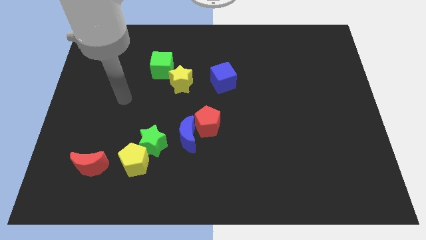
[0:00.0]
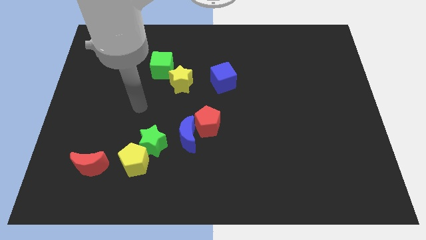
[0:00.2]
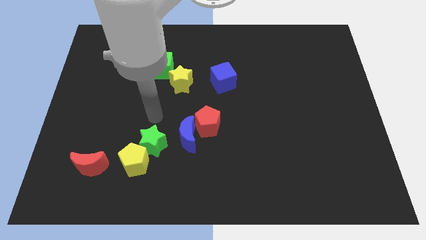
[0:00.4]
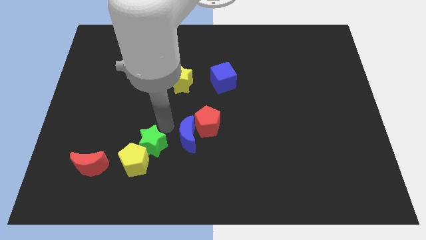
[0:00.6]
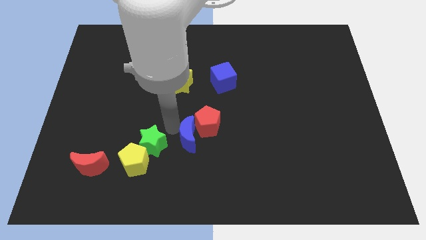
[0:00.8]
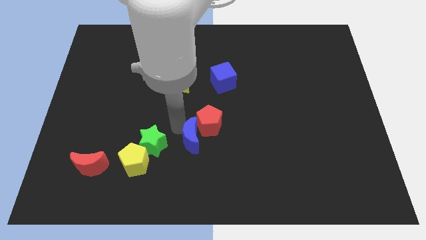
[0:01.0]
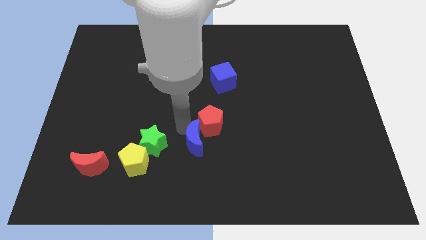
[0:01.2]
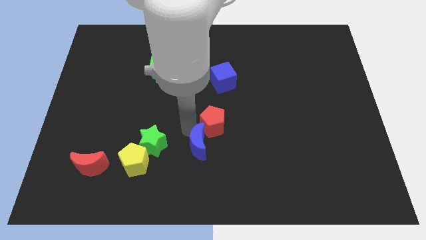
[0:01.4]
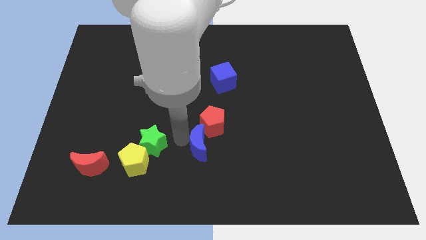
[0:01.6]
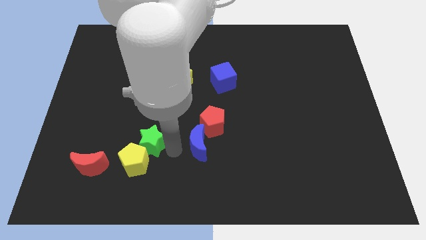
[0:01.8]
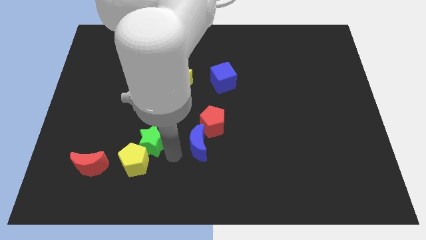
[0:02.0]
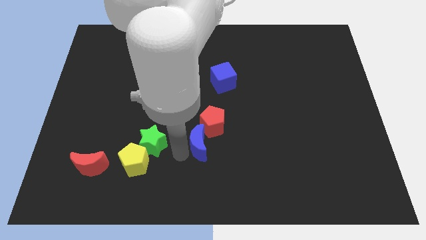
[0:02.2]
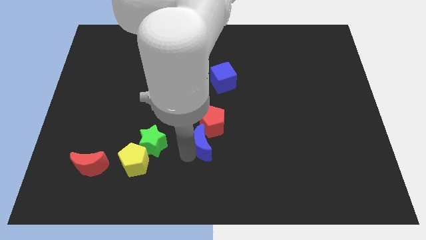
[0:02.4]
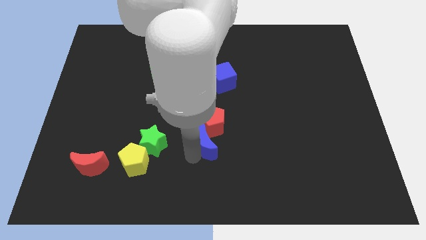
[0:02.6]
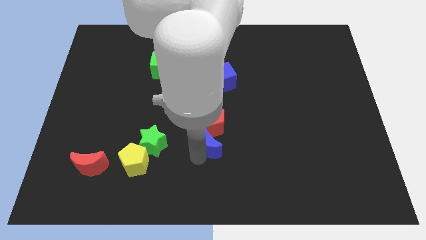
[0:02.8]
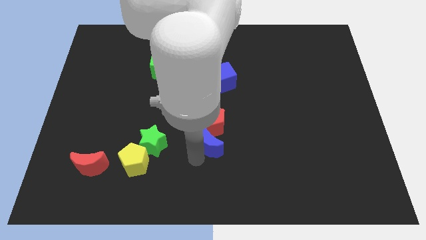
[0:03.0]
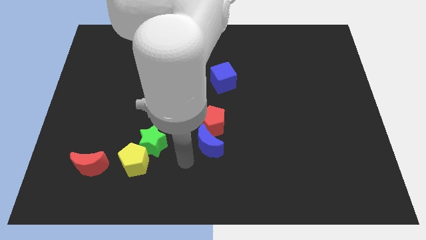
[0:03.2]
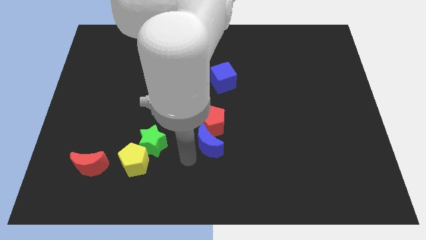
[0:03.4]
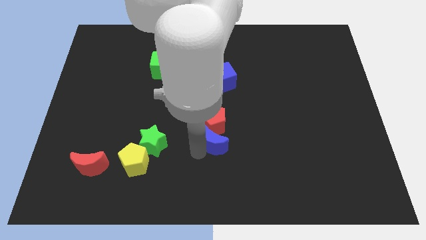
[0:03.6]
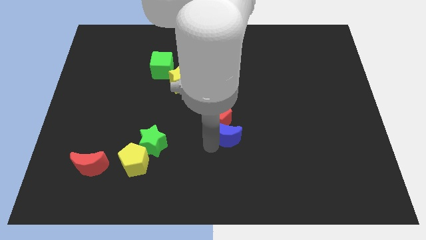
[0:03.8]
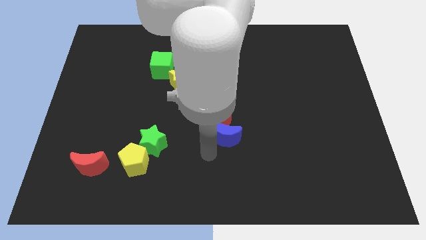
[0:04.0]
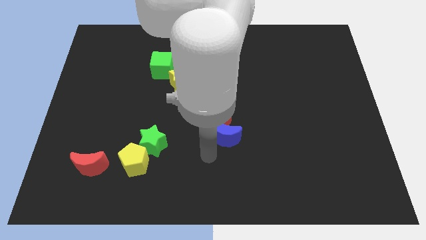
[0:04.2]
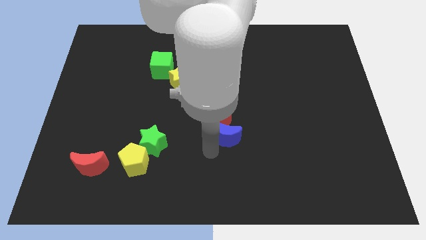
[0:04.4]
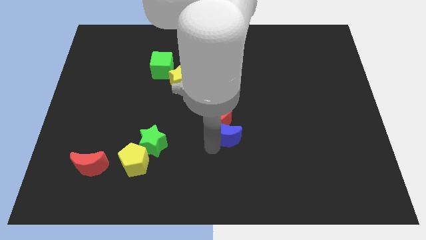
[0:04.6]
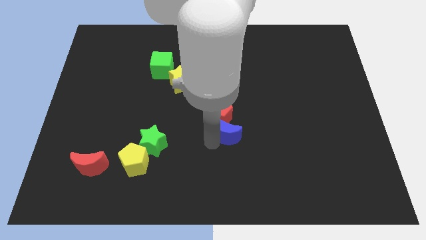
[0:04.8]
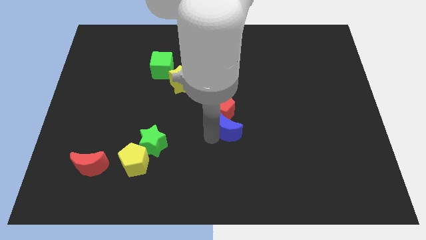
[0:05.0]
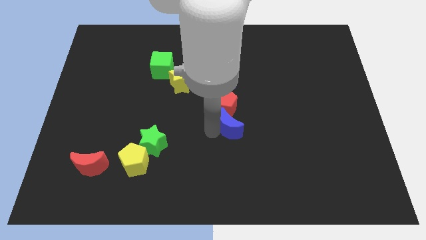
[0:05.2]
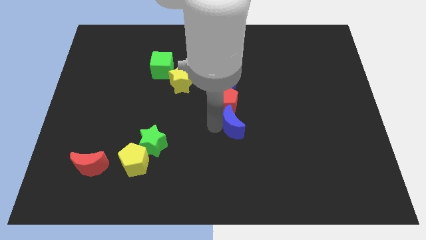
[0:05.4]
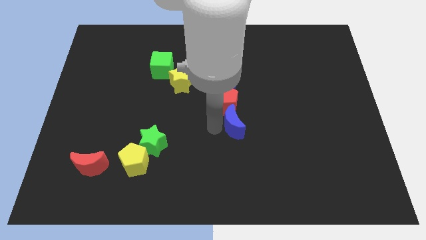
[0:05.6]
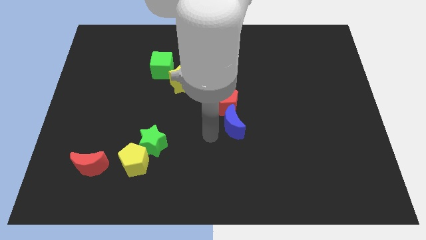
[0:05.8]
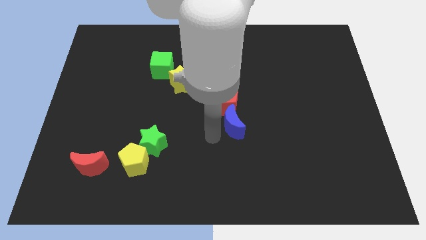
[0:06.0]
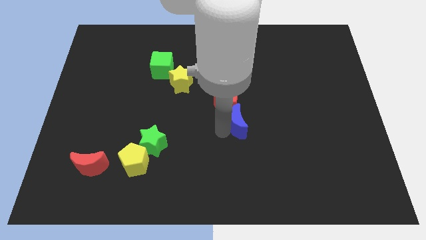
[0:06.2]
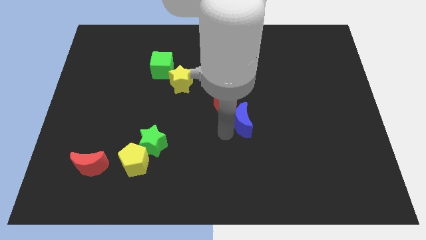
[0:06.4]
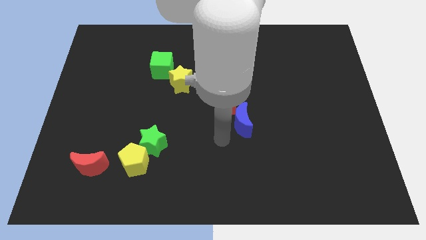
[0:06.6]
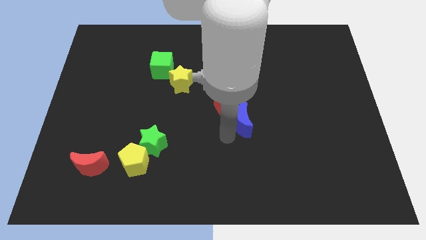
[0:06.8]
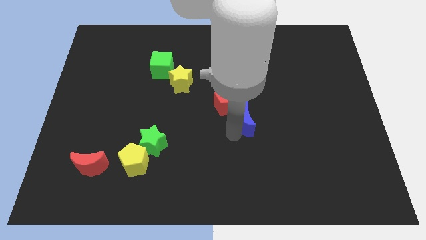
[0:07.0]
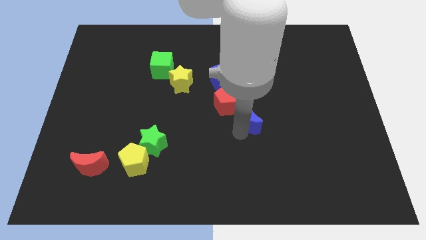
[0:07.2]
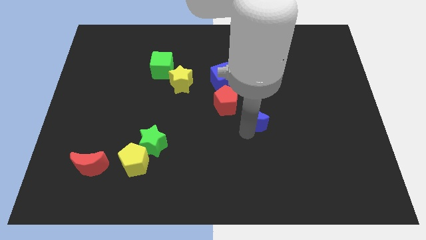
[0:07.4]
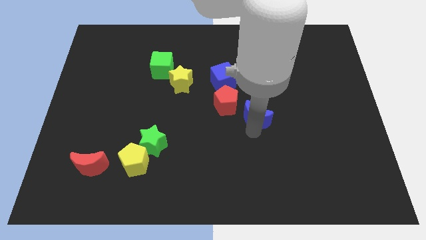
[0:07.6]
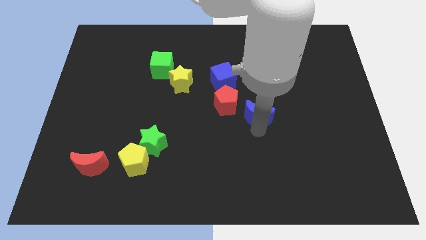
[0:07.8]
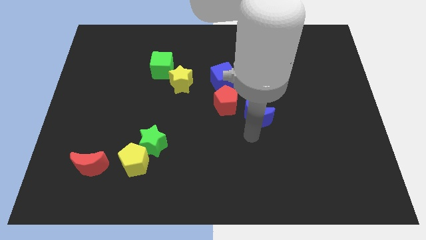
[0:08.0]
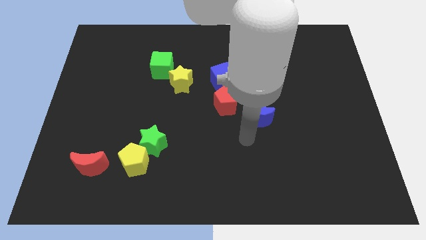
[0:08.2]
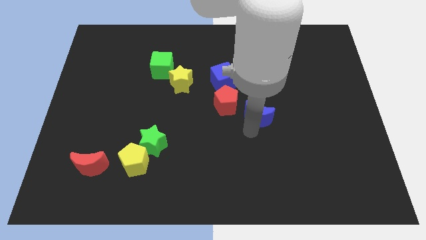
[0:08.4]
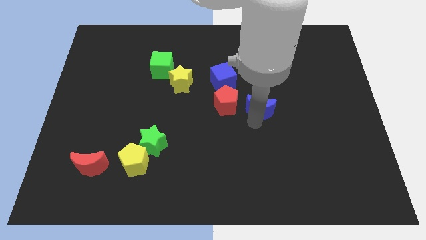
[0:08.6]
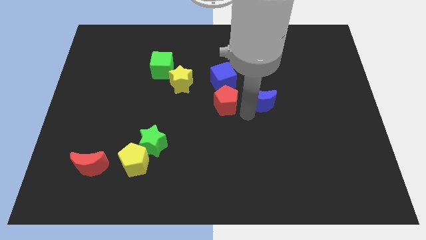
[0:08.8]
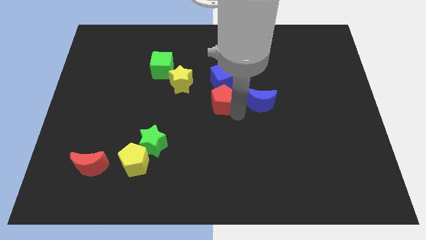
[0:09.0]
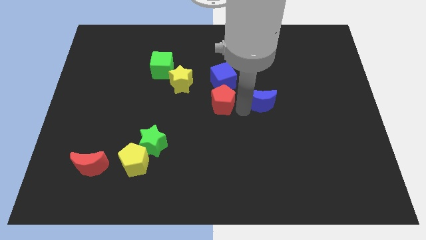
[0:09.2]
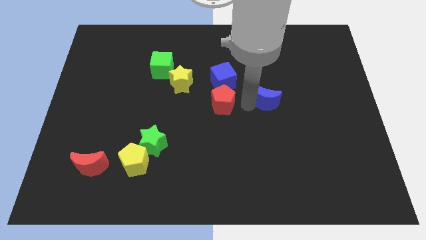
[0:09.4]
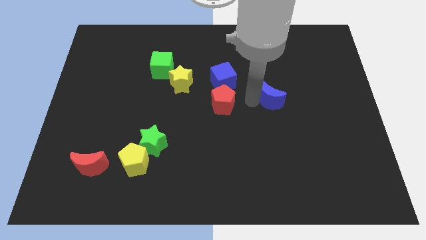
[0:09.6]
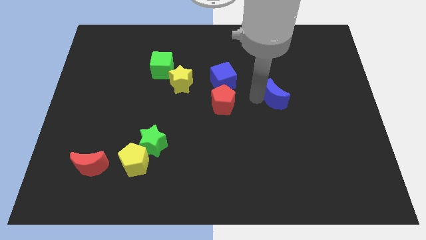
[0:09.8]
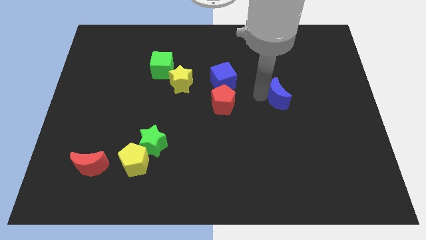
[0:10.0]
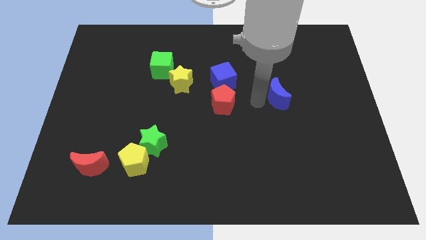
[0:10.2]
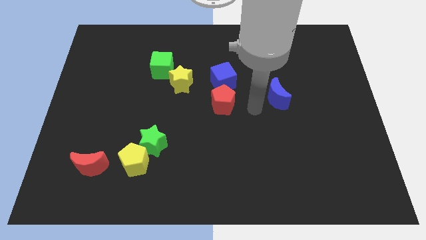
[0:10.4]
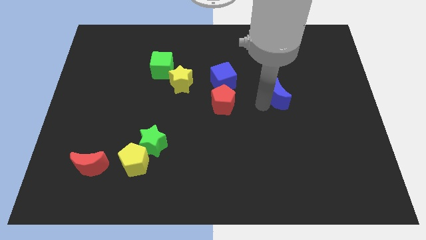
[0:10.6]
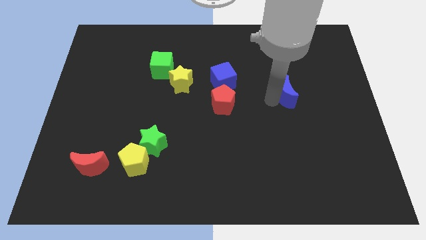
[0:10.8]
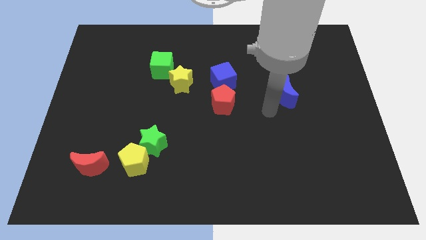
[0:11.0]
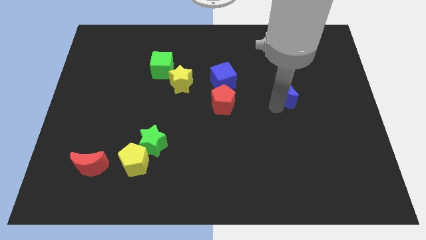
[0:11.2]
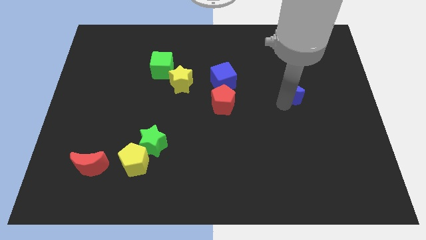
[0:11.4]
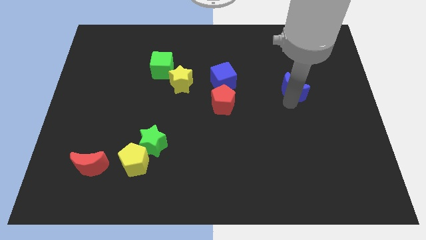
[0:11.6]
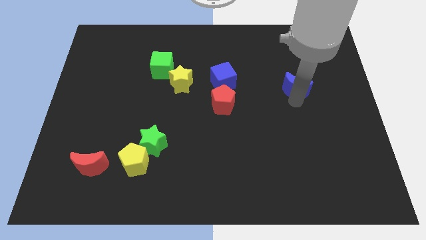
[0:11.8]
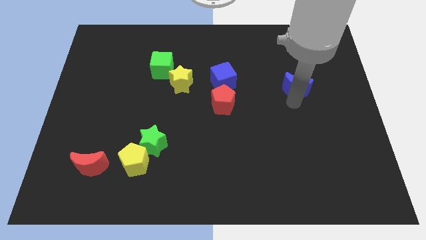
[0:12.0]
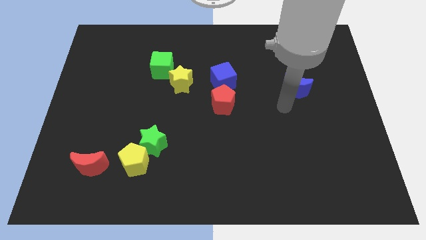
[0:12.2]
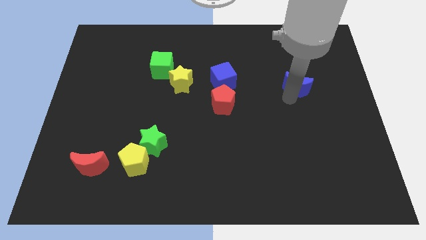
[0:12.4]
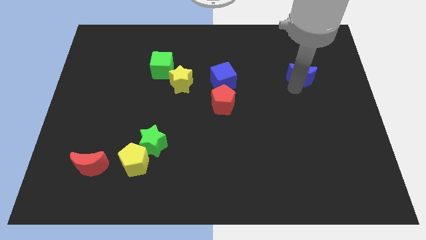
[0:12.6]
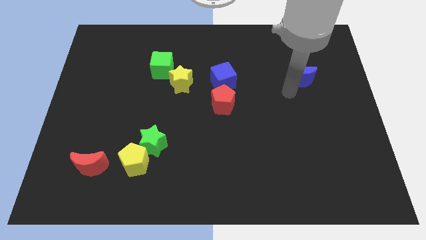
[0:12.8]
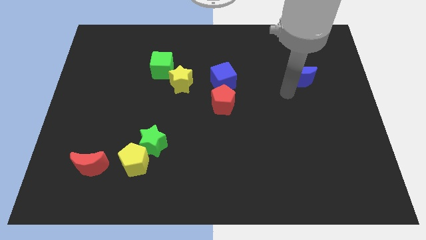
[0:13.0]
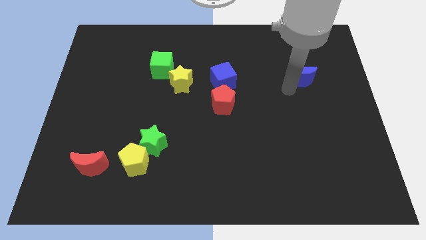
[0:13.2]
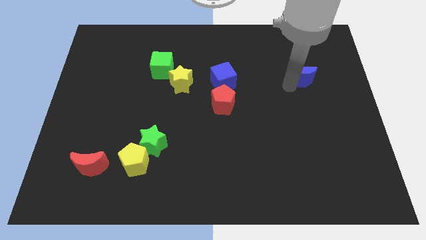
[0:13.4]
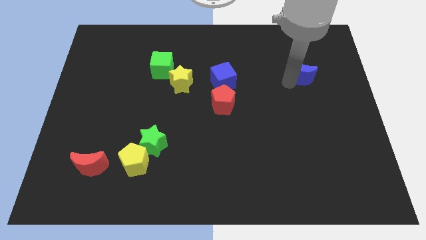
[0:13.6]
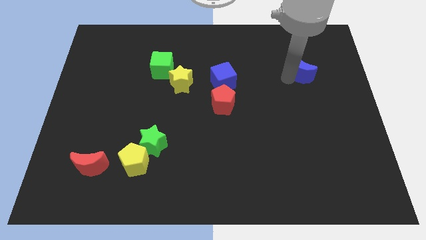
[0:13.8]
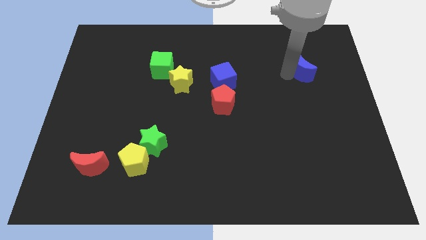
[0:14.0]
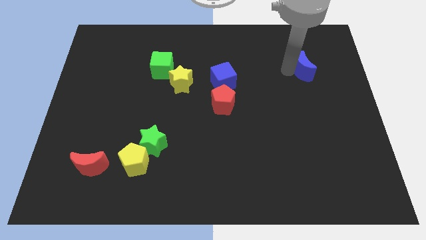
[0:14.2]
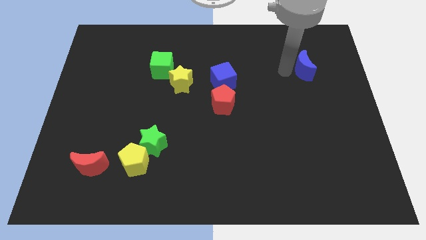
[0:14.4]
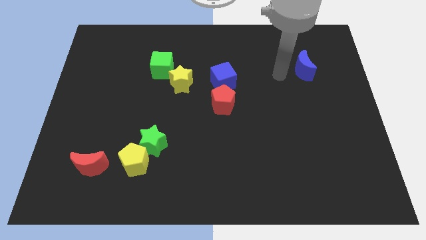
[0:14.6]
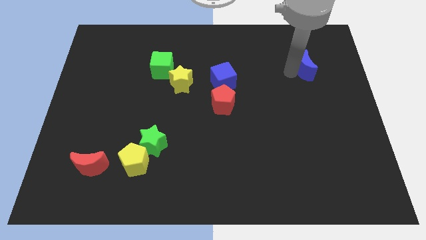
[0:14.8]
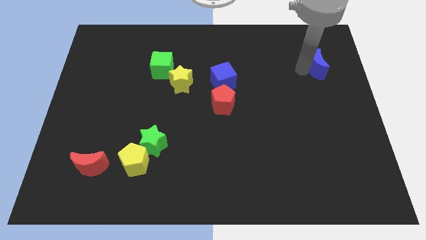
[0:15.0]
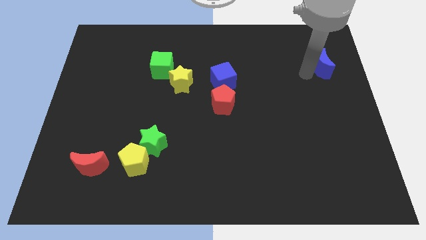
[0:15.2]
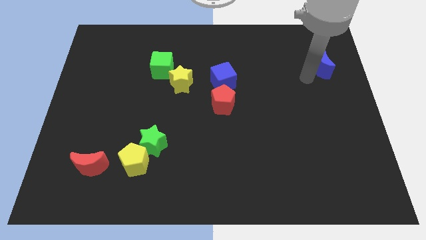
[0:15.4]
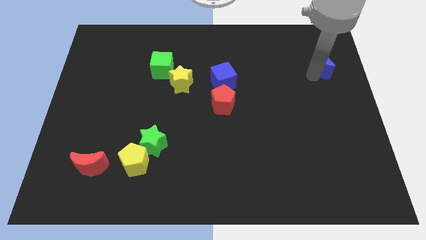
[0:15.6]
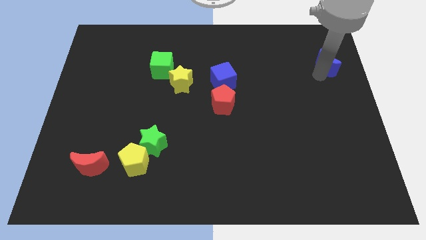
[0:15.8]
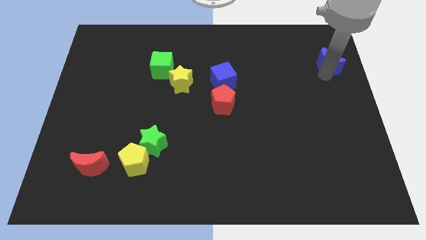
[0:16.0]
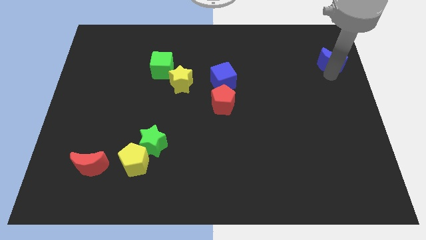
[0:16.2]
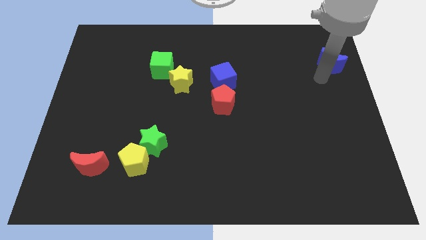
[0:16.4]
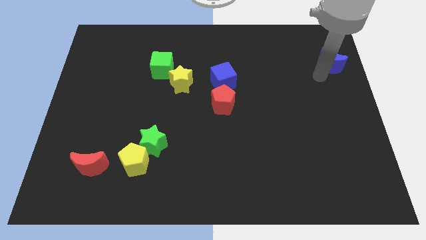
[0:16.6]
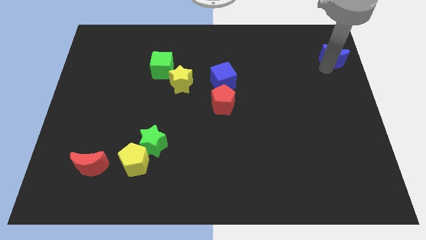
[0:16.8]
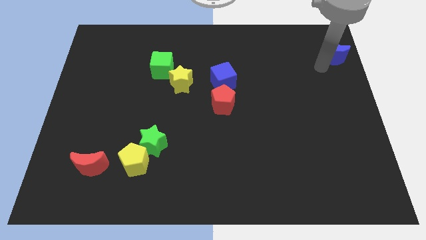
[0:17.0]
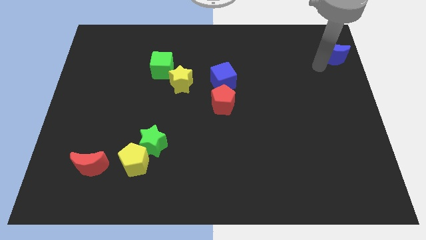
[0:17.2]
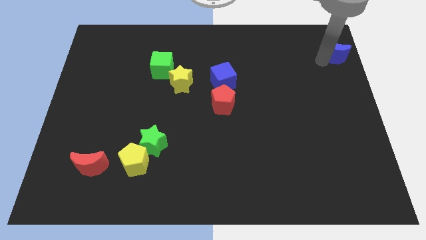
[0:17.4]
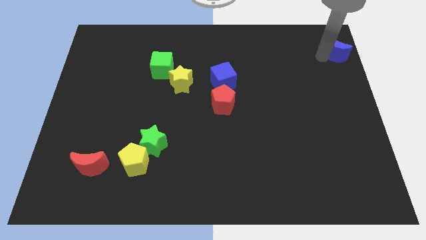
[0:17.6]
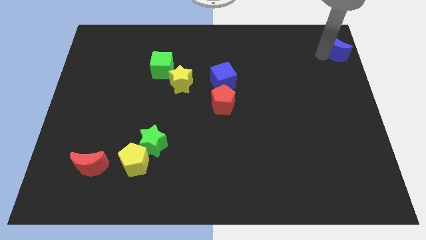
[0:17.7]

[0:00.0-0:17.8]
move the blue moon to the top right corner
